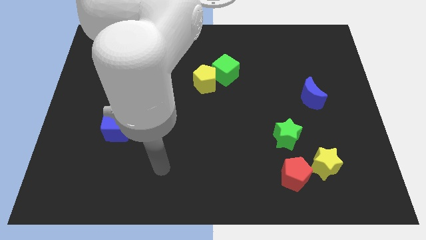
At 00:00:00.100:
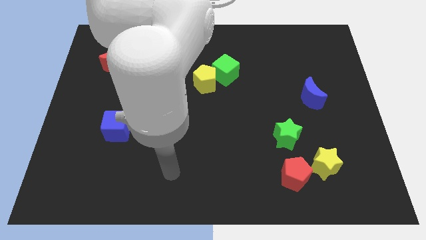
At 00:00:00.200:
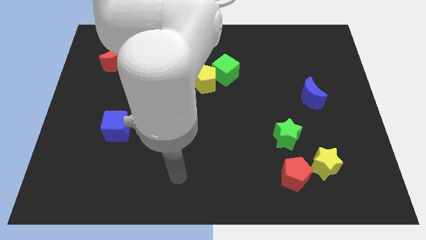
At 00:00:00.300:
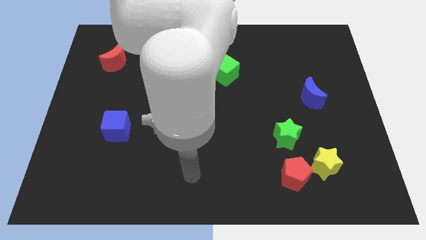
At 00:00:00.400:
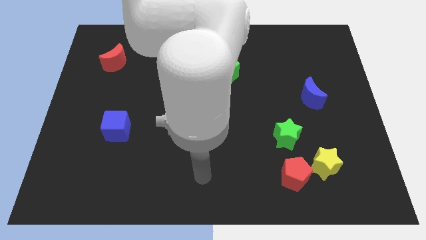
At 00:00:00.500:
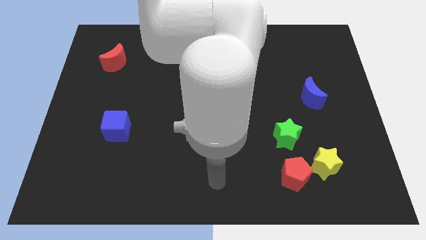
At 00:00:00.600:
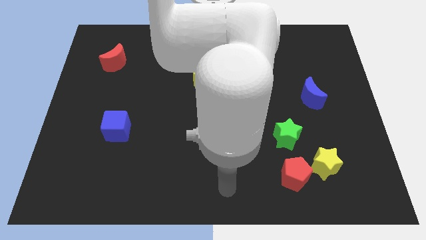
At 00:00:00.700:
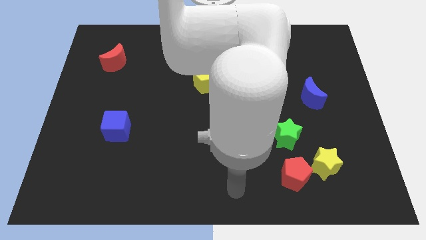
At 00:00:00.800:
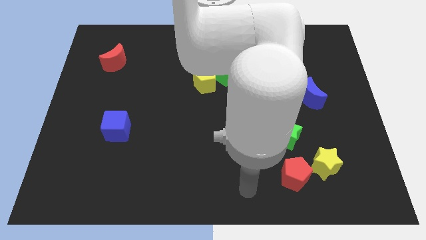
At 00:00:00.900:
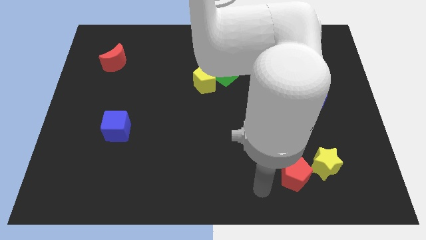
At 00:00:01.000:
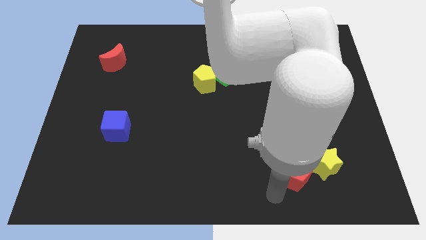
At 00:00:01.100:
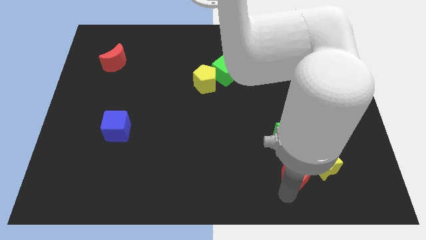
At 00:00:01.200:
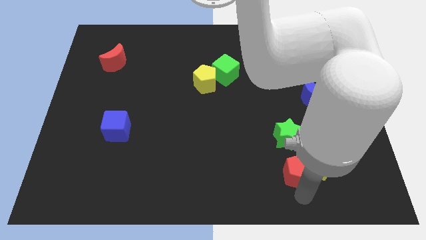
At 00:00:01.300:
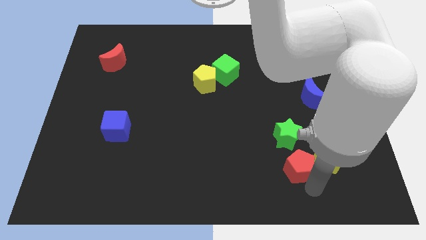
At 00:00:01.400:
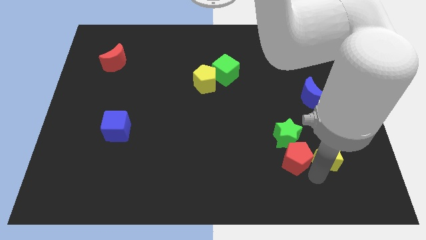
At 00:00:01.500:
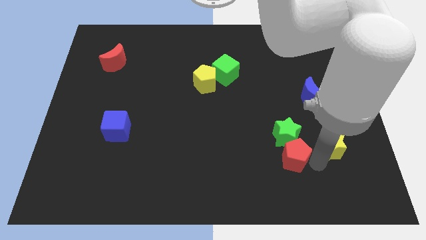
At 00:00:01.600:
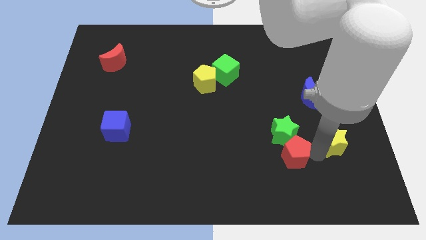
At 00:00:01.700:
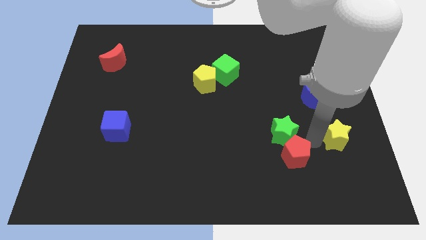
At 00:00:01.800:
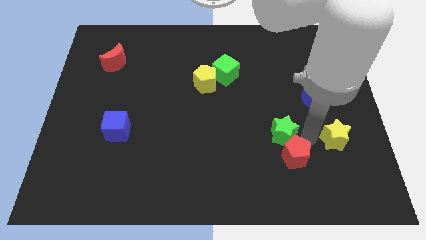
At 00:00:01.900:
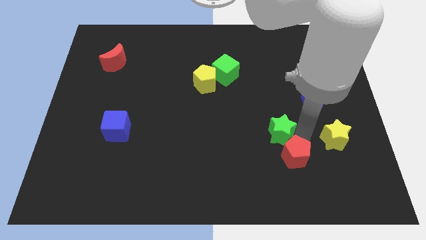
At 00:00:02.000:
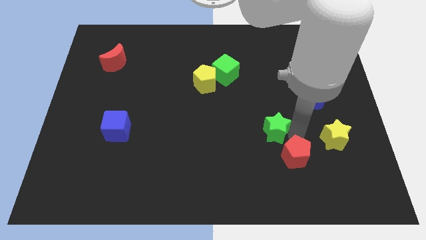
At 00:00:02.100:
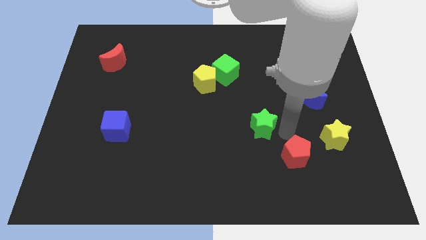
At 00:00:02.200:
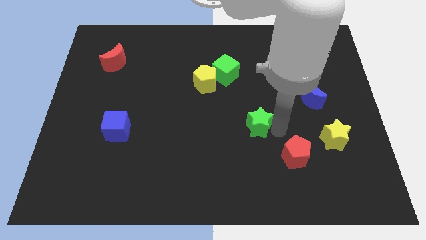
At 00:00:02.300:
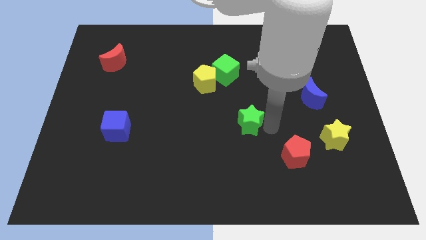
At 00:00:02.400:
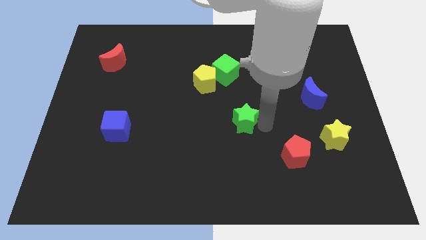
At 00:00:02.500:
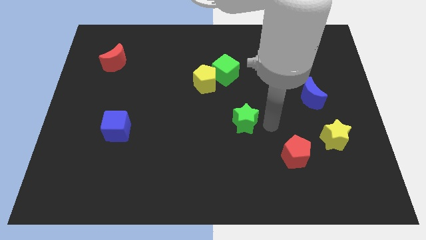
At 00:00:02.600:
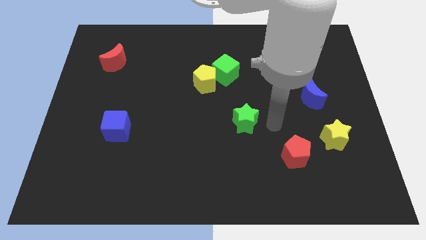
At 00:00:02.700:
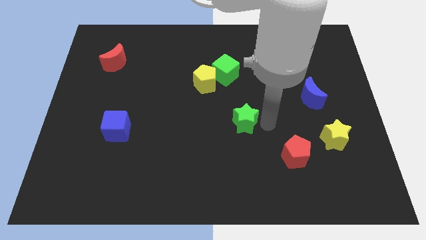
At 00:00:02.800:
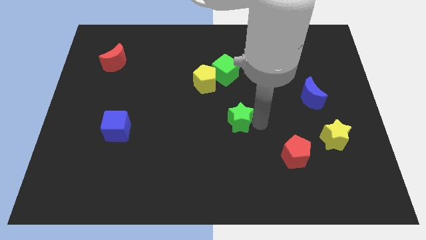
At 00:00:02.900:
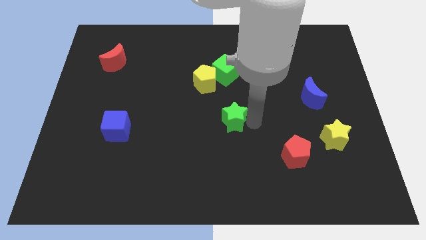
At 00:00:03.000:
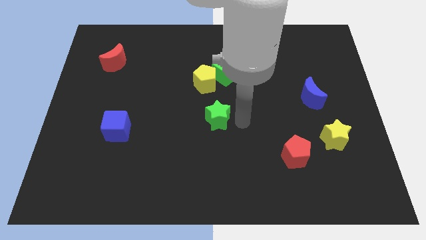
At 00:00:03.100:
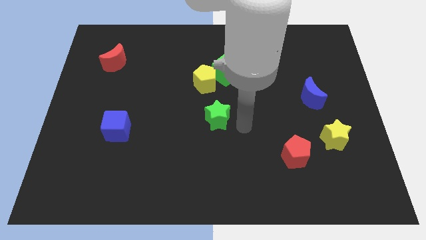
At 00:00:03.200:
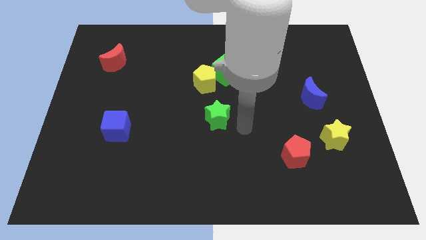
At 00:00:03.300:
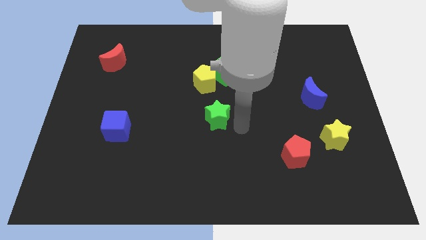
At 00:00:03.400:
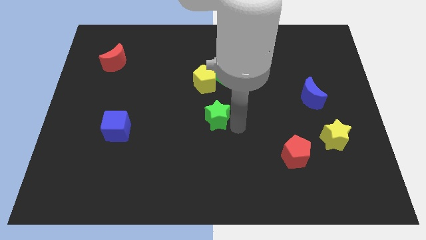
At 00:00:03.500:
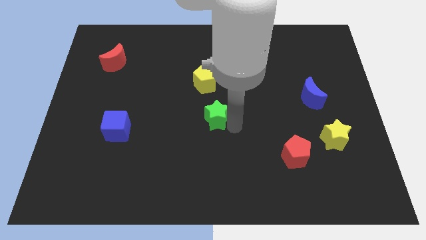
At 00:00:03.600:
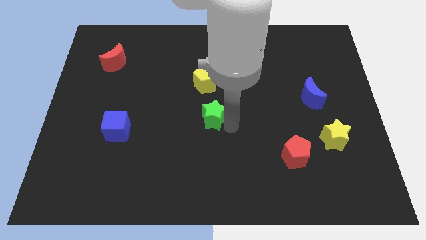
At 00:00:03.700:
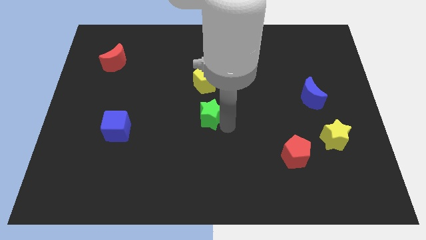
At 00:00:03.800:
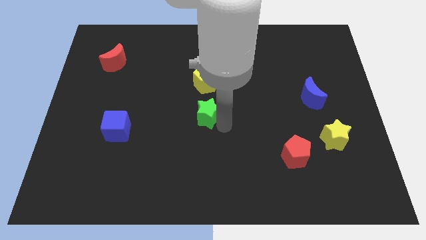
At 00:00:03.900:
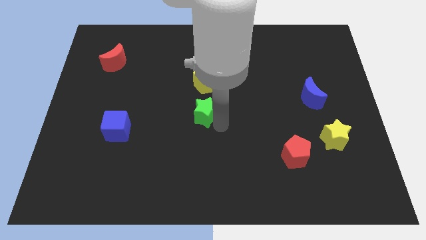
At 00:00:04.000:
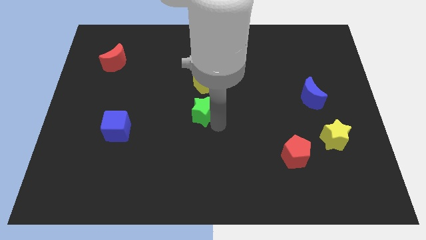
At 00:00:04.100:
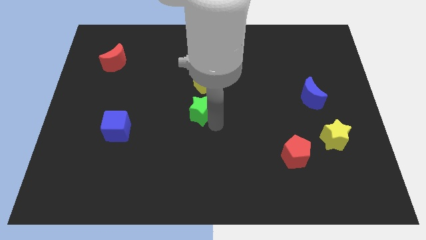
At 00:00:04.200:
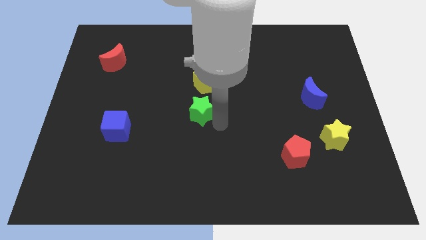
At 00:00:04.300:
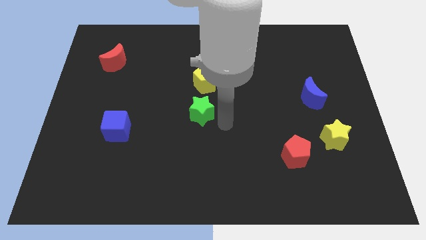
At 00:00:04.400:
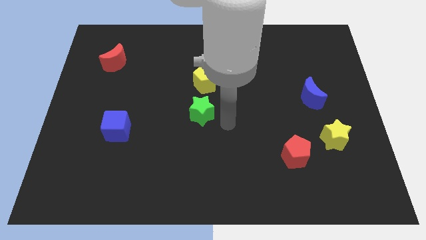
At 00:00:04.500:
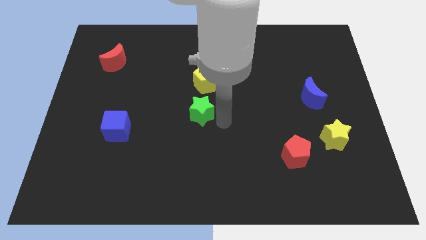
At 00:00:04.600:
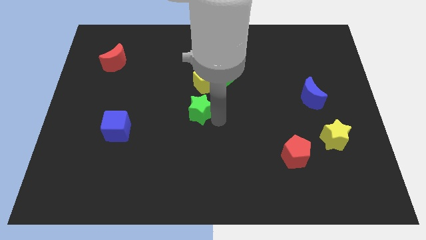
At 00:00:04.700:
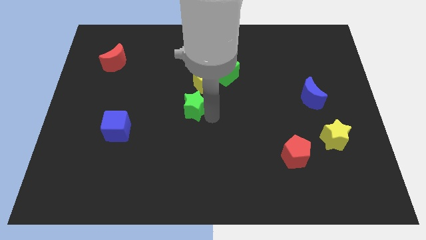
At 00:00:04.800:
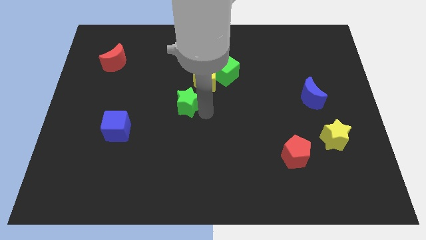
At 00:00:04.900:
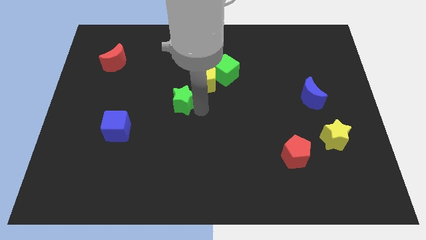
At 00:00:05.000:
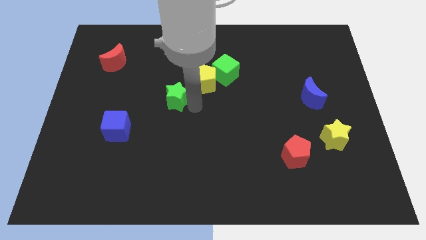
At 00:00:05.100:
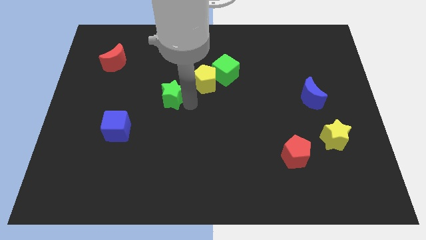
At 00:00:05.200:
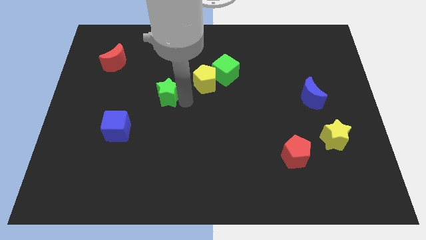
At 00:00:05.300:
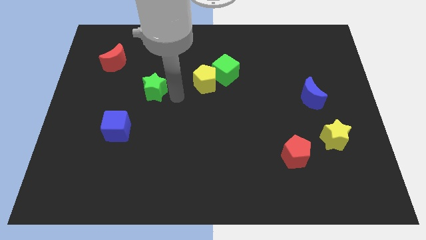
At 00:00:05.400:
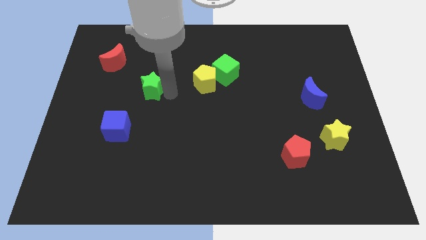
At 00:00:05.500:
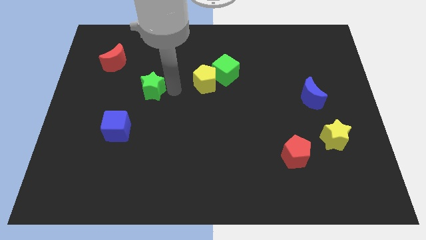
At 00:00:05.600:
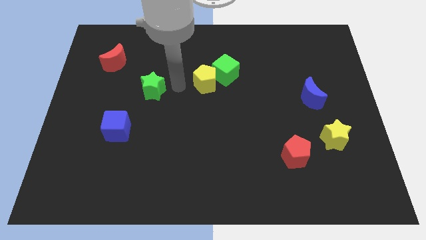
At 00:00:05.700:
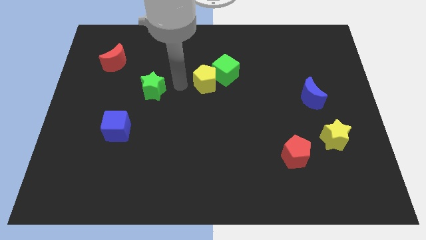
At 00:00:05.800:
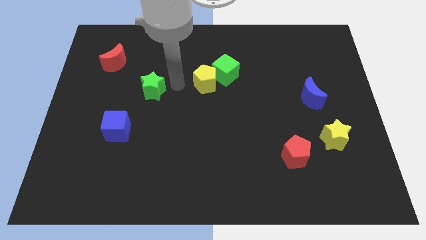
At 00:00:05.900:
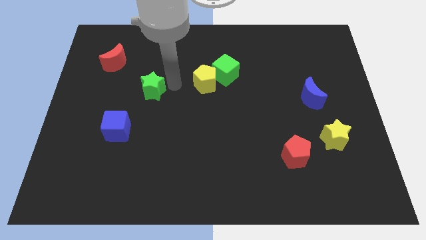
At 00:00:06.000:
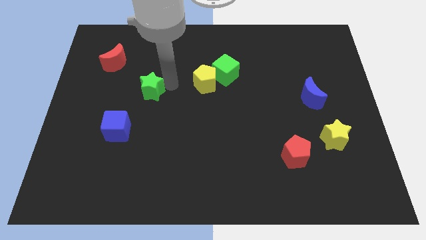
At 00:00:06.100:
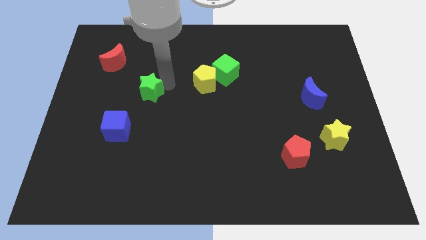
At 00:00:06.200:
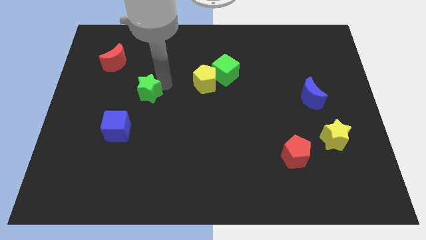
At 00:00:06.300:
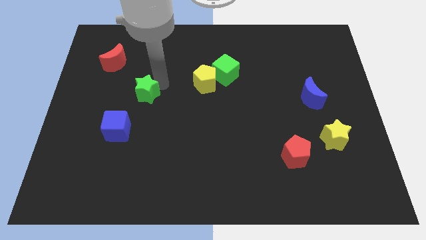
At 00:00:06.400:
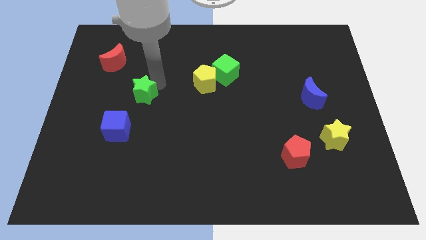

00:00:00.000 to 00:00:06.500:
slide the green star to the top of the blue cube
